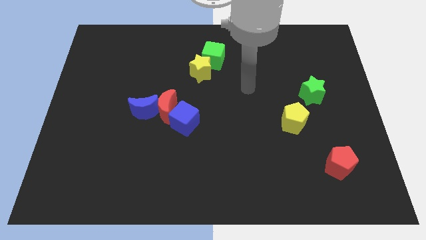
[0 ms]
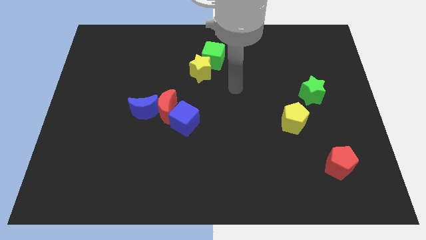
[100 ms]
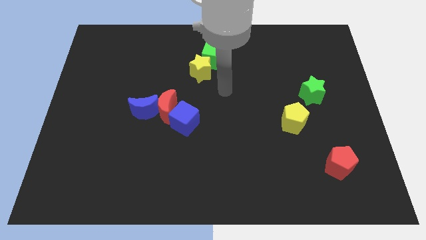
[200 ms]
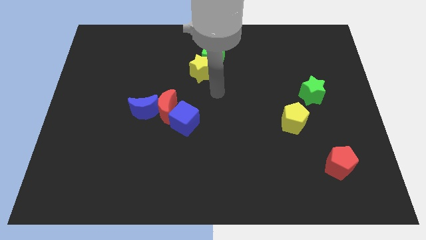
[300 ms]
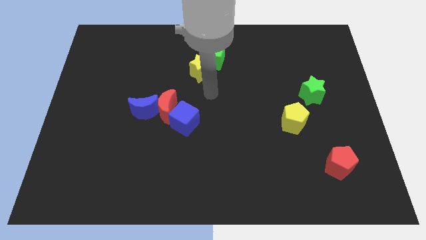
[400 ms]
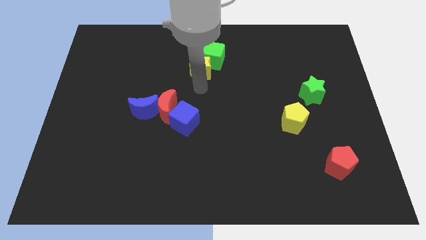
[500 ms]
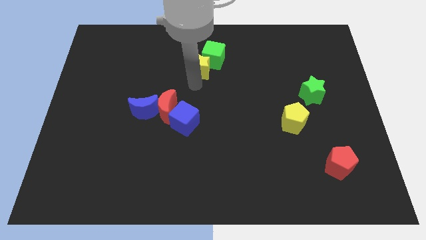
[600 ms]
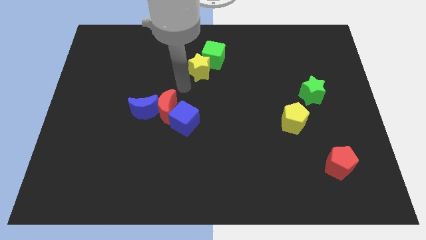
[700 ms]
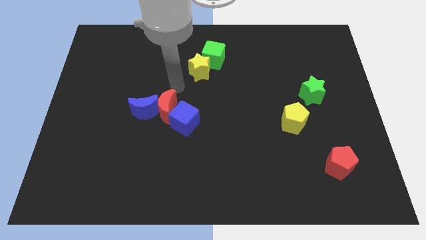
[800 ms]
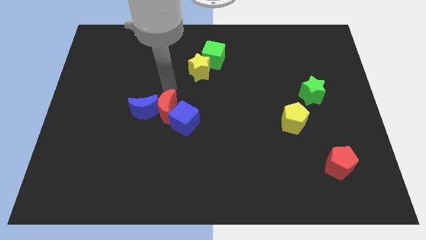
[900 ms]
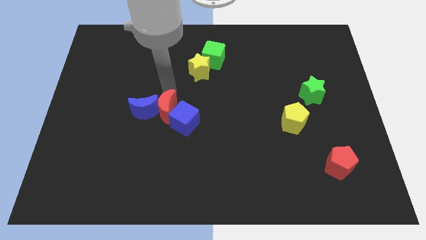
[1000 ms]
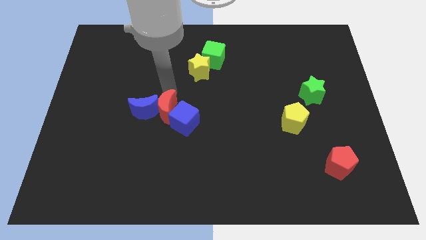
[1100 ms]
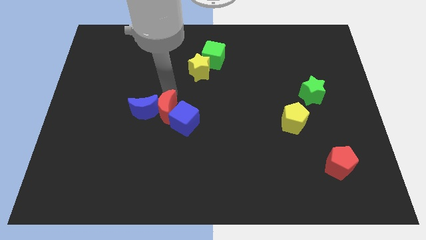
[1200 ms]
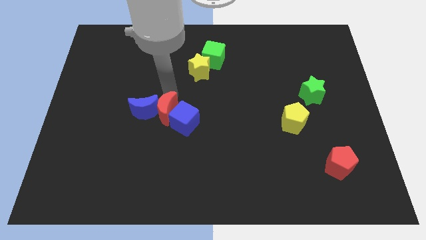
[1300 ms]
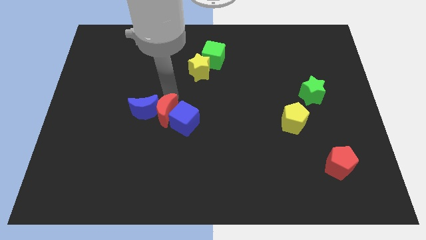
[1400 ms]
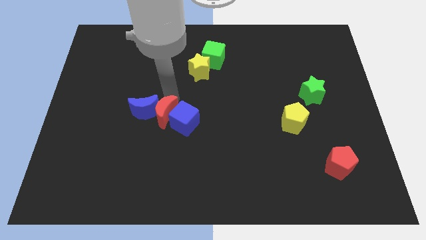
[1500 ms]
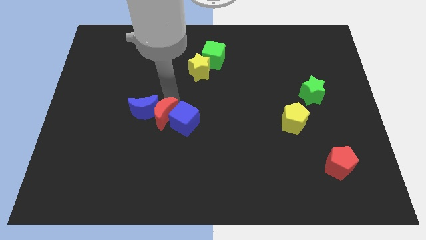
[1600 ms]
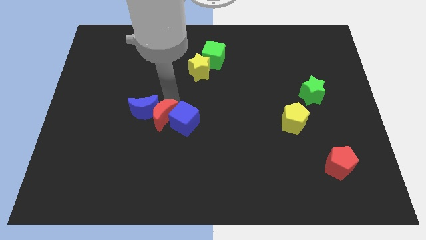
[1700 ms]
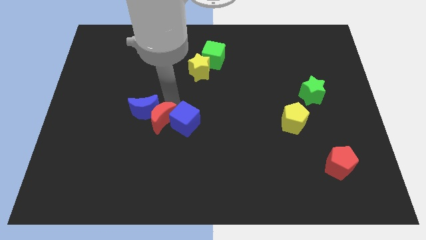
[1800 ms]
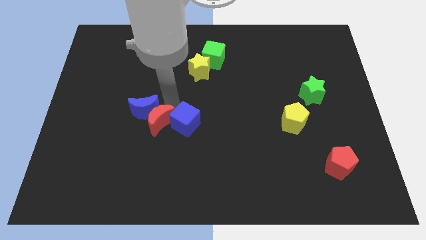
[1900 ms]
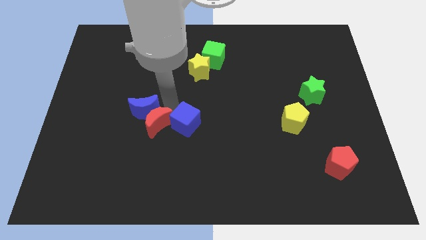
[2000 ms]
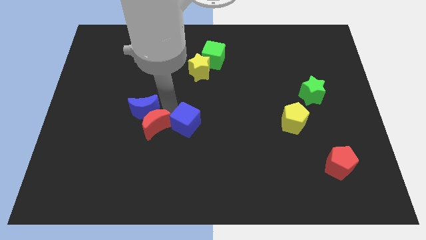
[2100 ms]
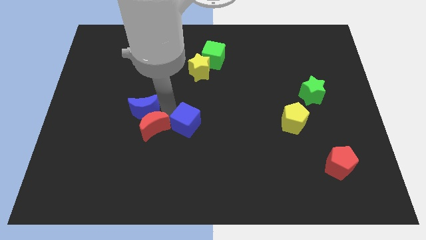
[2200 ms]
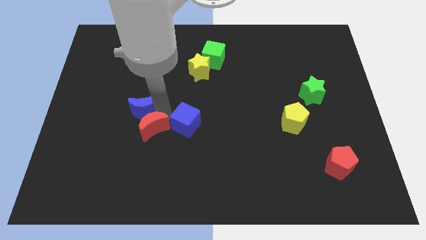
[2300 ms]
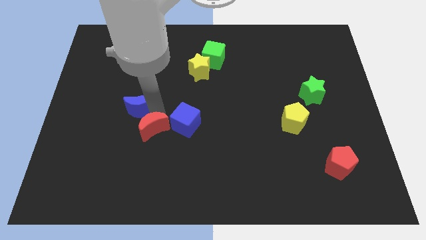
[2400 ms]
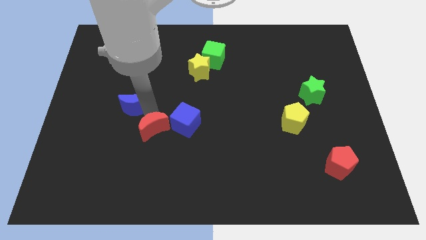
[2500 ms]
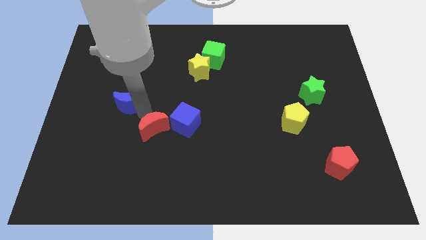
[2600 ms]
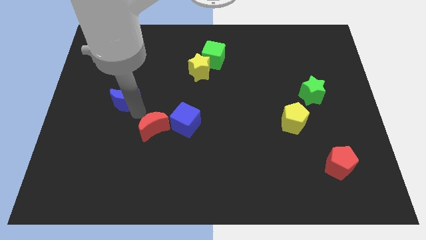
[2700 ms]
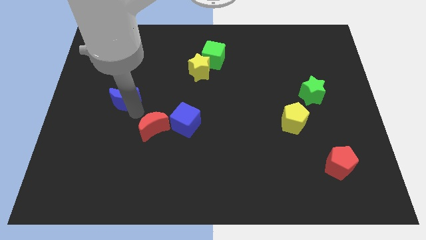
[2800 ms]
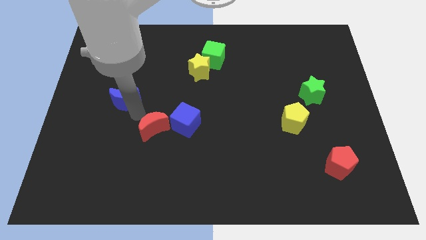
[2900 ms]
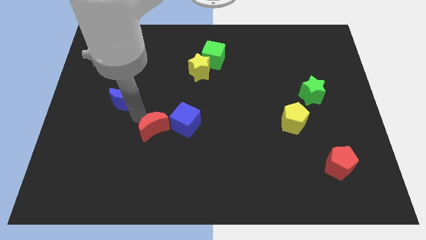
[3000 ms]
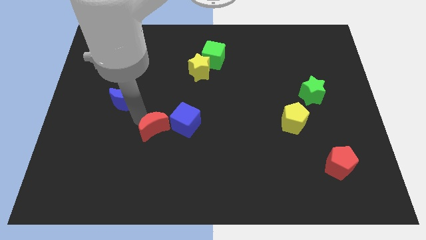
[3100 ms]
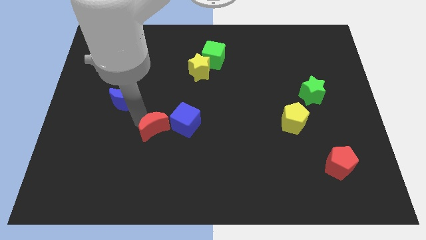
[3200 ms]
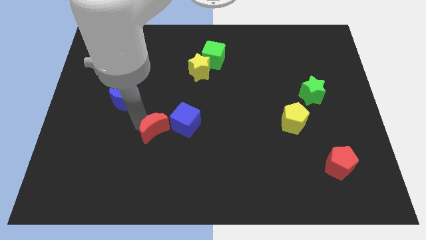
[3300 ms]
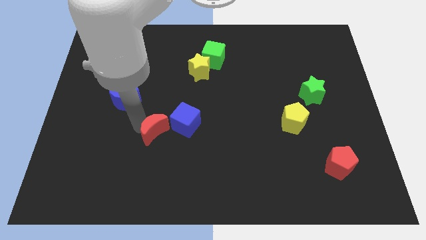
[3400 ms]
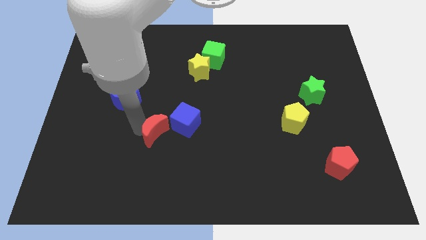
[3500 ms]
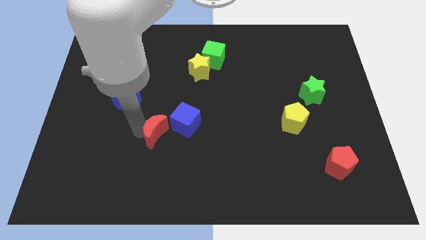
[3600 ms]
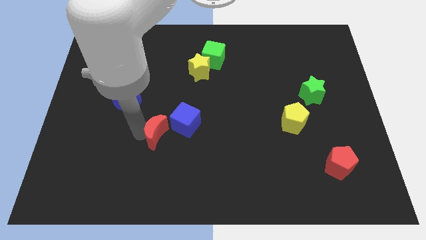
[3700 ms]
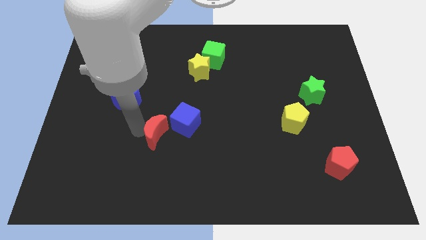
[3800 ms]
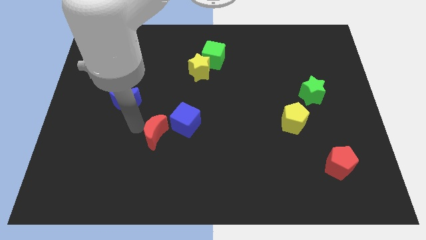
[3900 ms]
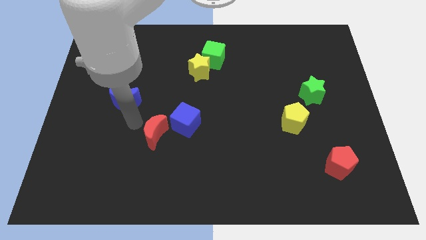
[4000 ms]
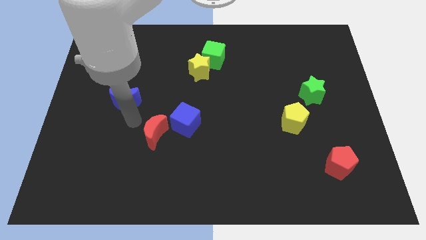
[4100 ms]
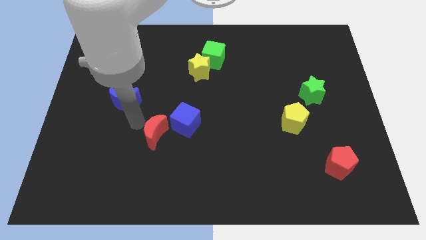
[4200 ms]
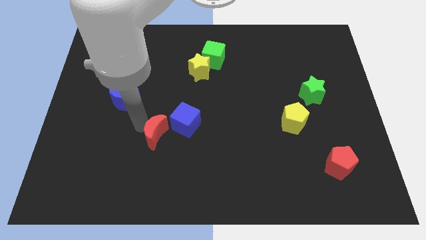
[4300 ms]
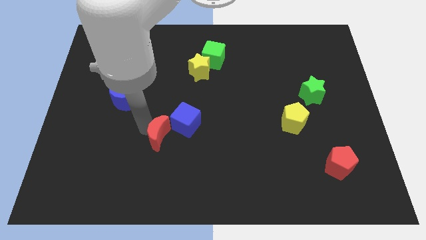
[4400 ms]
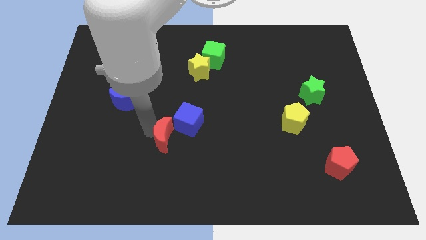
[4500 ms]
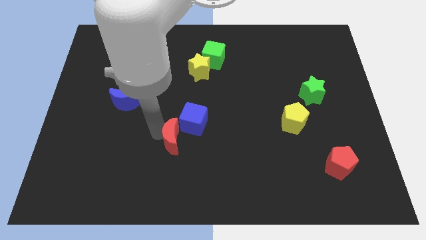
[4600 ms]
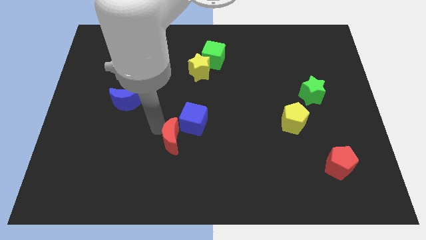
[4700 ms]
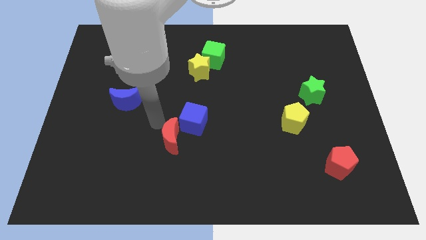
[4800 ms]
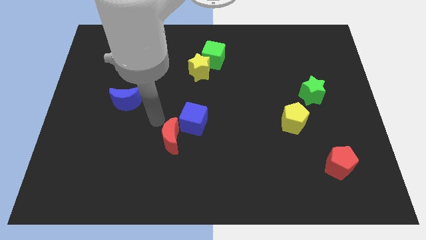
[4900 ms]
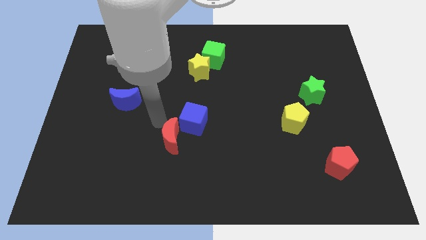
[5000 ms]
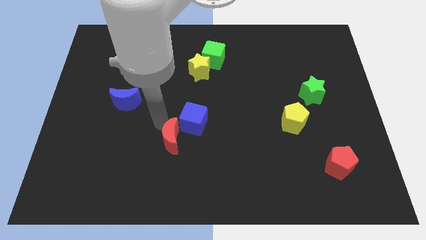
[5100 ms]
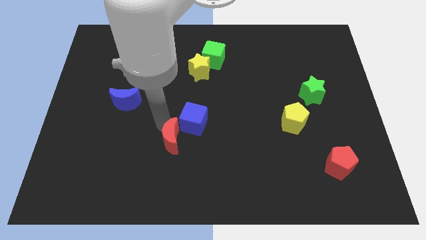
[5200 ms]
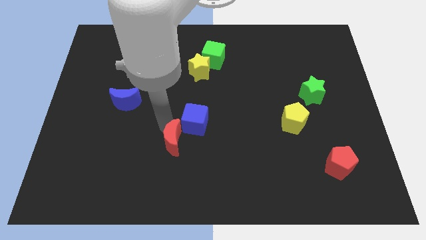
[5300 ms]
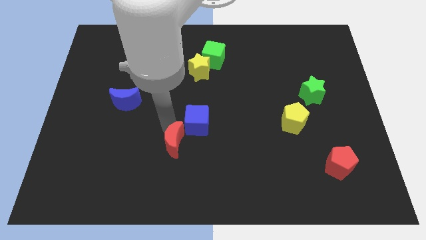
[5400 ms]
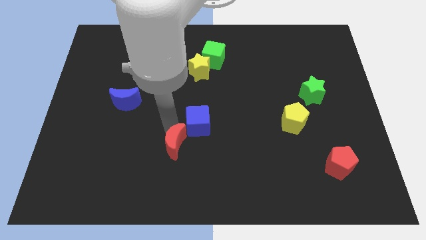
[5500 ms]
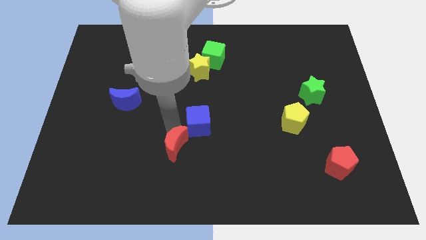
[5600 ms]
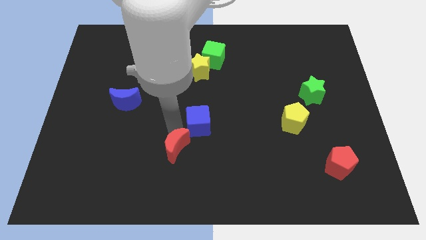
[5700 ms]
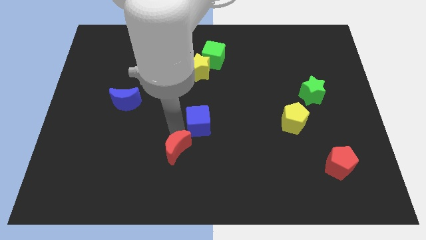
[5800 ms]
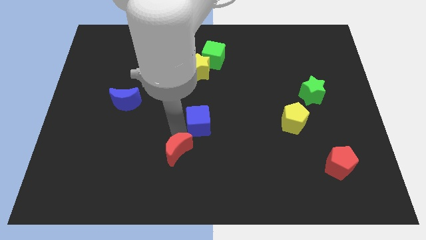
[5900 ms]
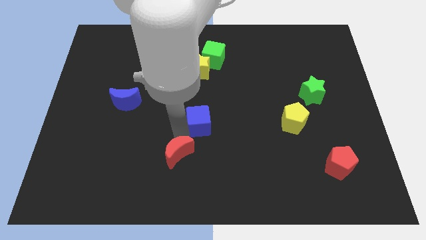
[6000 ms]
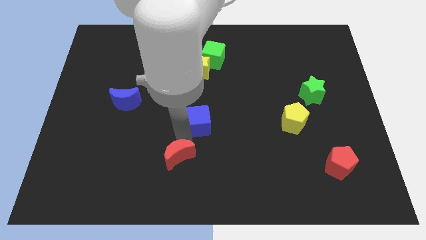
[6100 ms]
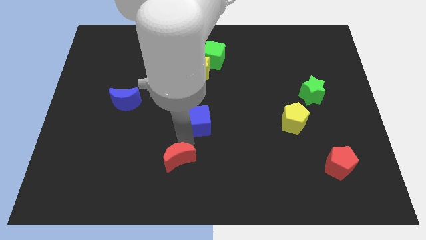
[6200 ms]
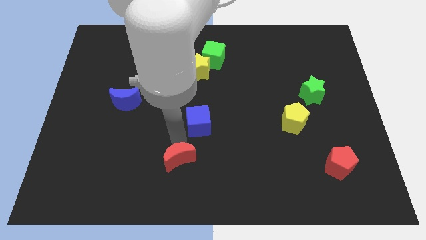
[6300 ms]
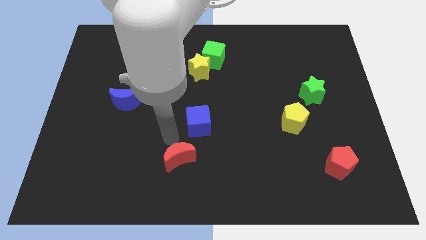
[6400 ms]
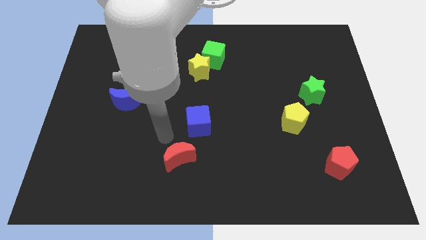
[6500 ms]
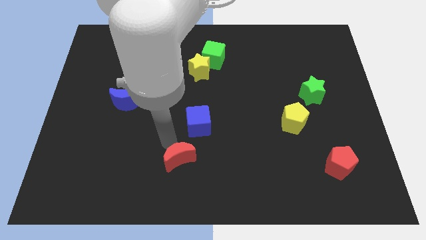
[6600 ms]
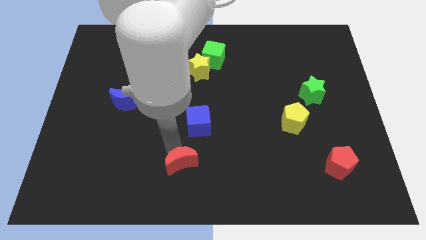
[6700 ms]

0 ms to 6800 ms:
push the red moon to the bottom
